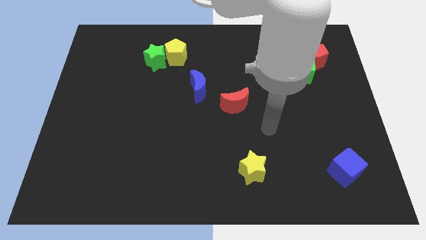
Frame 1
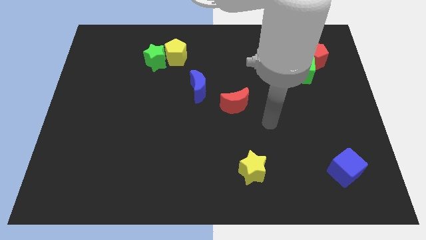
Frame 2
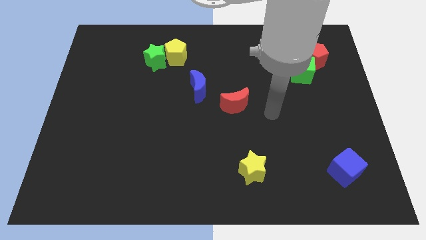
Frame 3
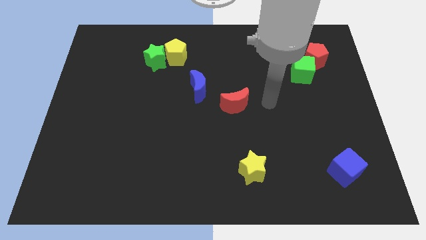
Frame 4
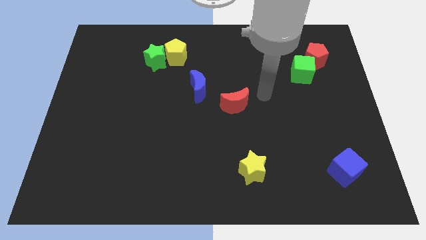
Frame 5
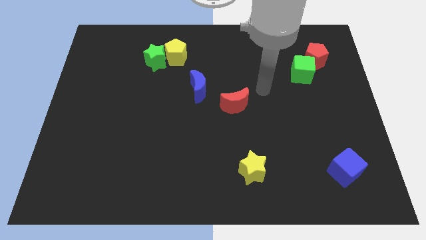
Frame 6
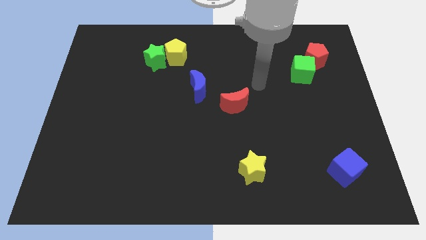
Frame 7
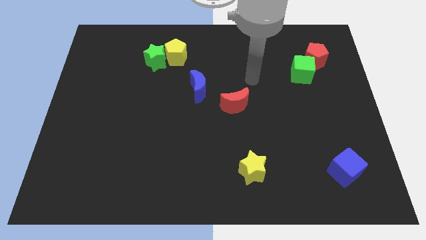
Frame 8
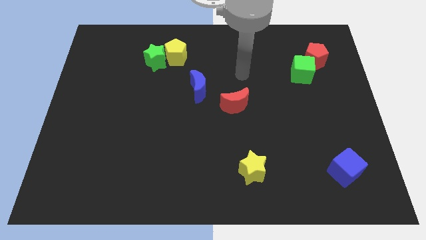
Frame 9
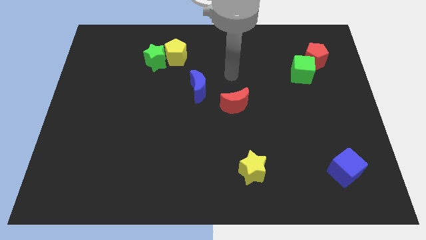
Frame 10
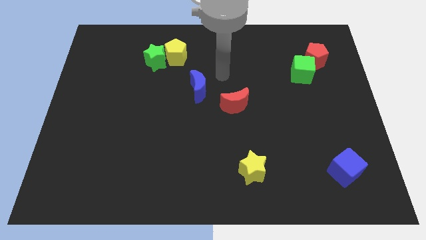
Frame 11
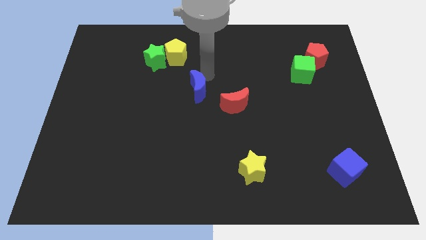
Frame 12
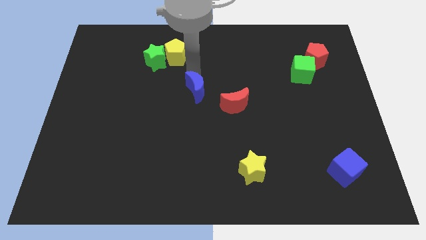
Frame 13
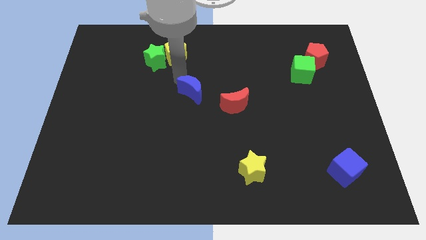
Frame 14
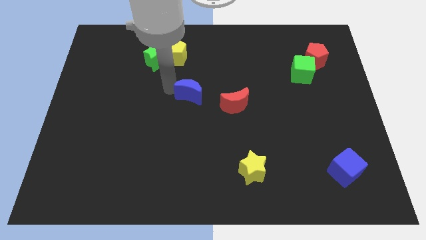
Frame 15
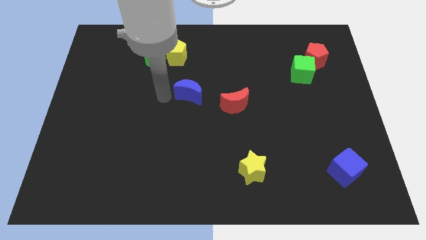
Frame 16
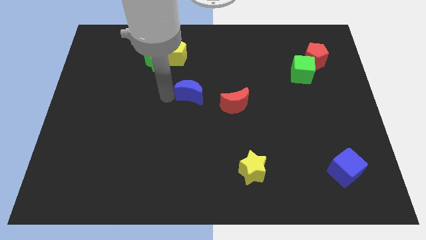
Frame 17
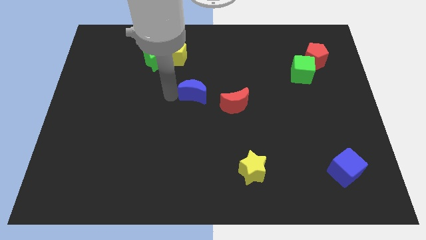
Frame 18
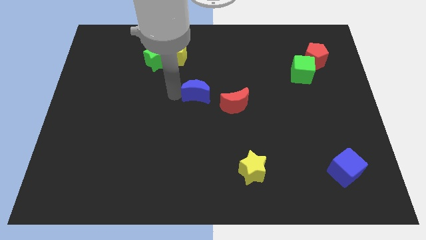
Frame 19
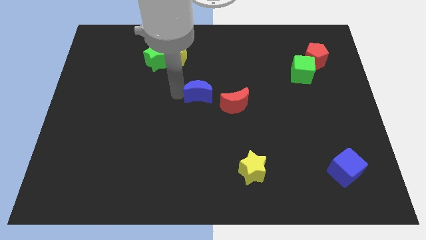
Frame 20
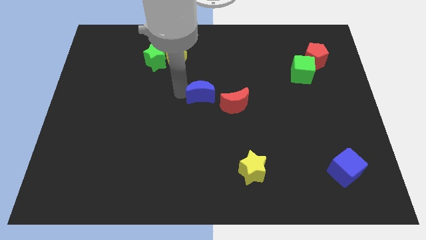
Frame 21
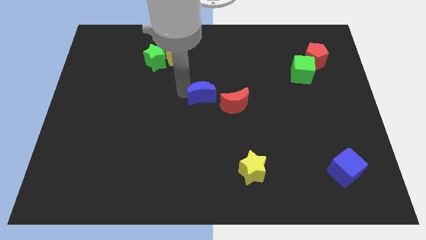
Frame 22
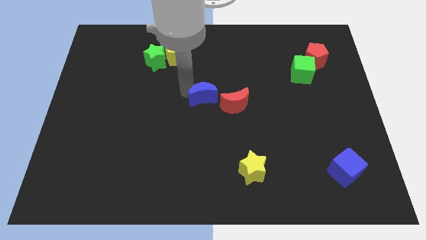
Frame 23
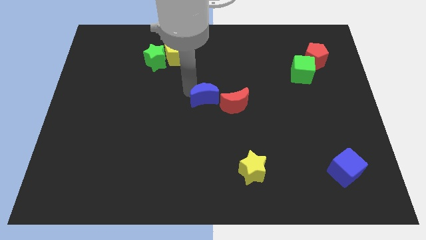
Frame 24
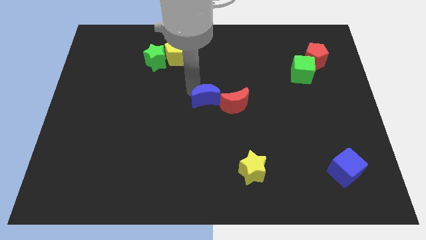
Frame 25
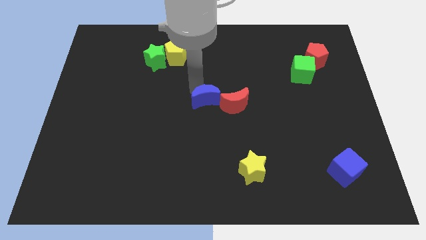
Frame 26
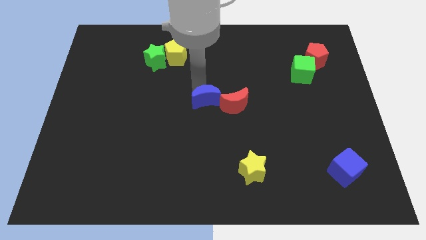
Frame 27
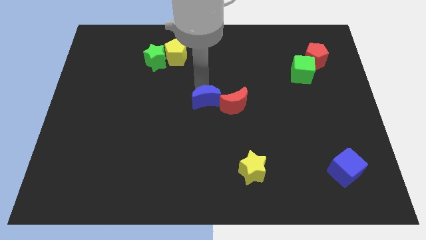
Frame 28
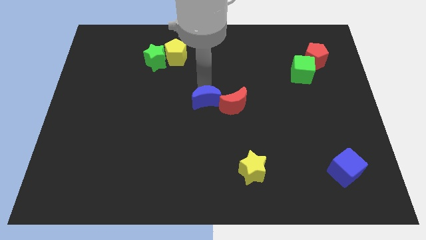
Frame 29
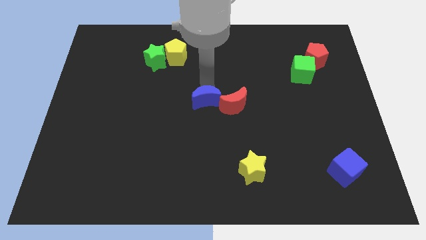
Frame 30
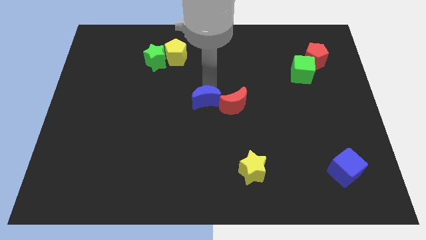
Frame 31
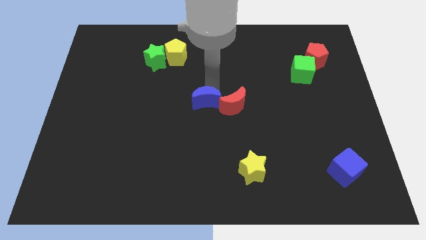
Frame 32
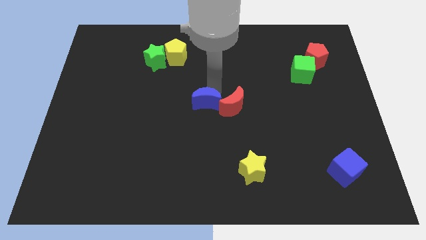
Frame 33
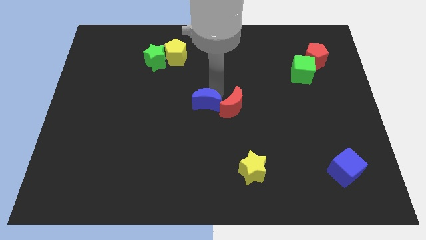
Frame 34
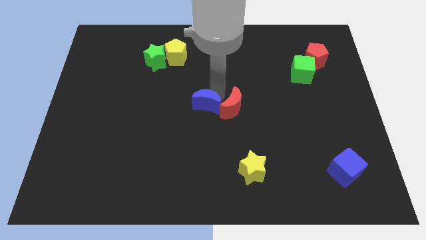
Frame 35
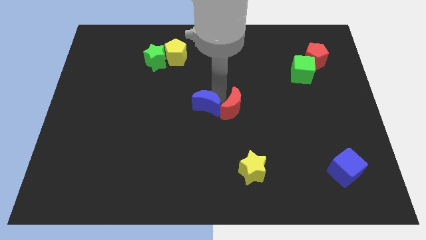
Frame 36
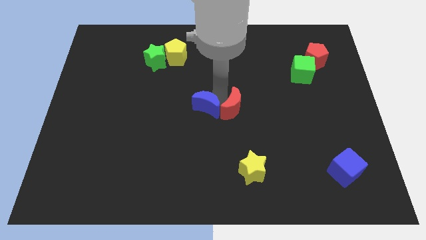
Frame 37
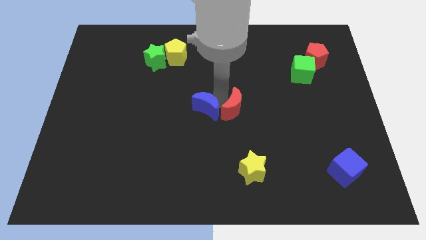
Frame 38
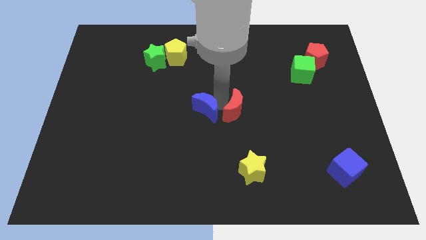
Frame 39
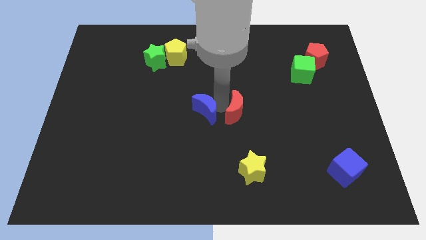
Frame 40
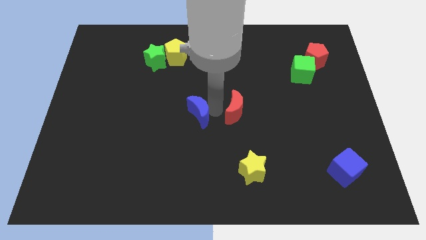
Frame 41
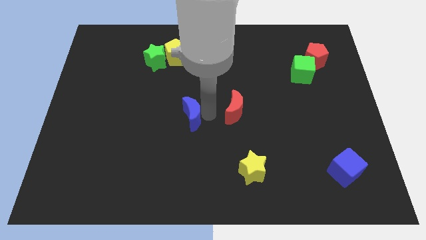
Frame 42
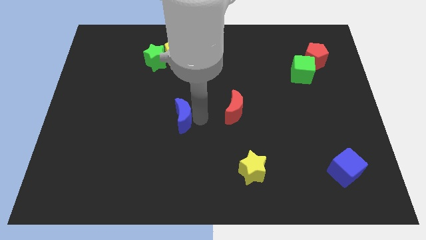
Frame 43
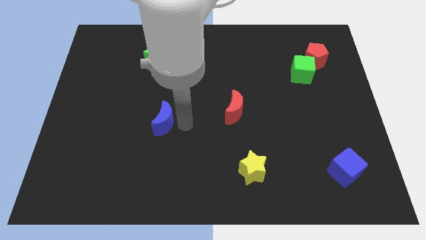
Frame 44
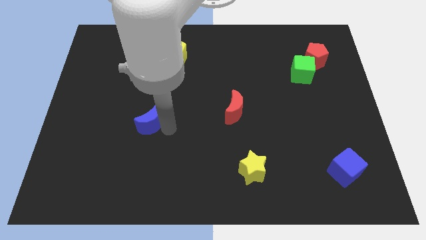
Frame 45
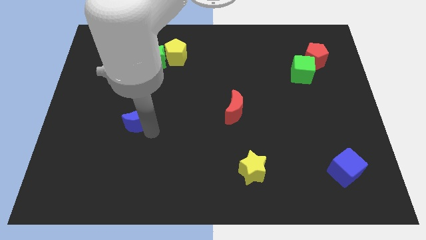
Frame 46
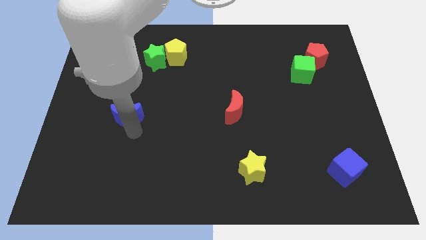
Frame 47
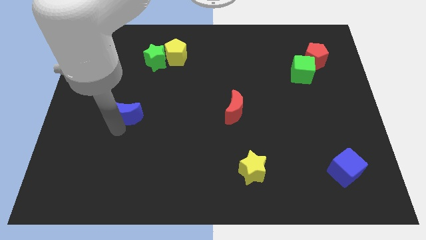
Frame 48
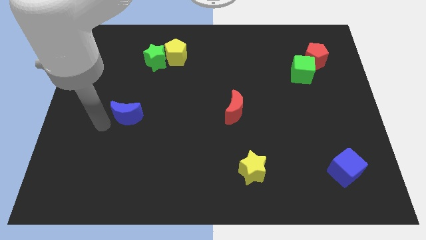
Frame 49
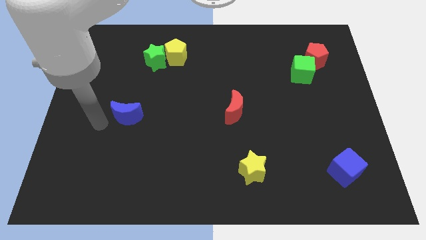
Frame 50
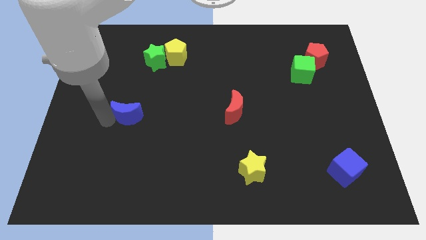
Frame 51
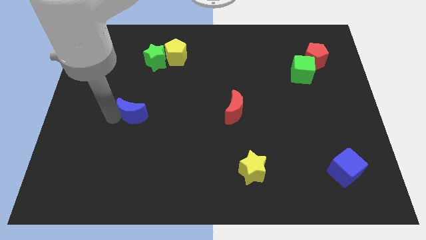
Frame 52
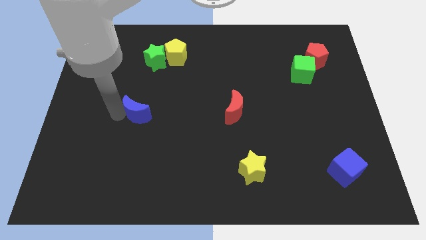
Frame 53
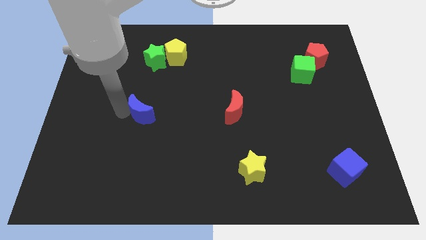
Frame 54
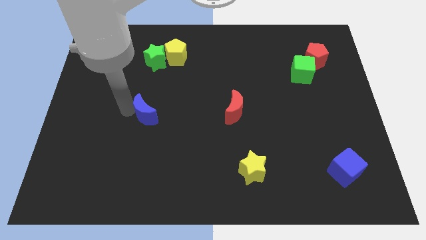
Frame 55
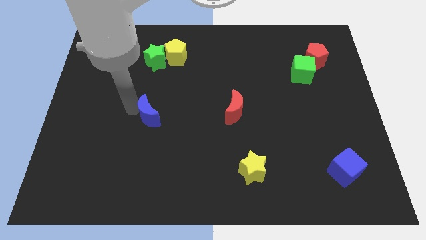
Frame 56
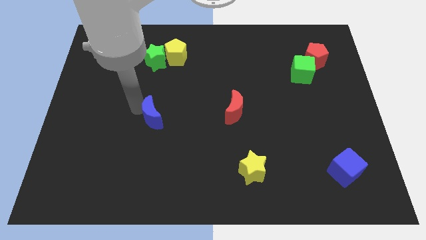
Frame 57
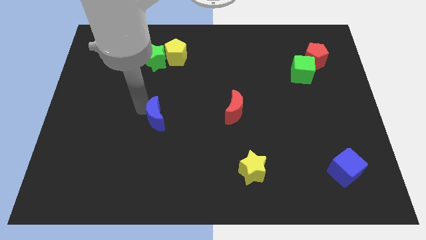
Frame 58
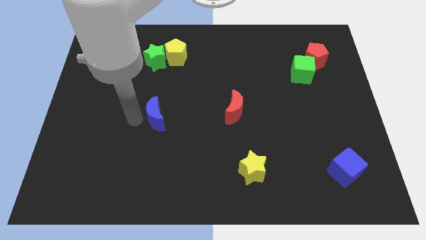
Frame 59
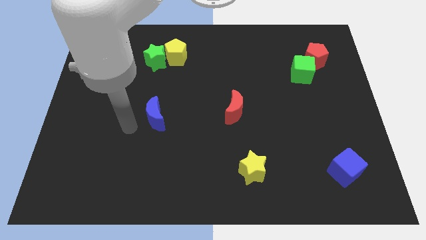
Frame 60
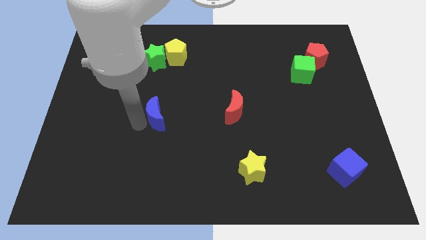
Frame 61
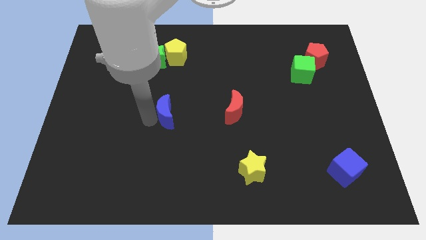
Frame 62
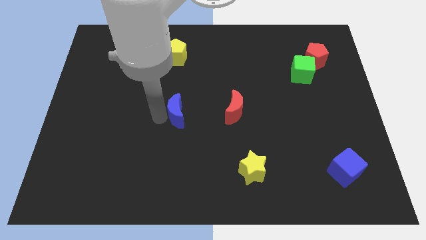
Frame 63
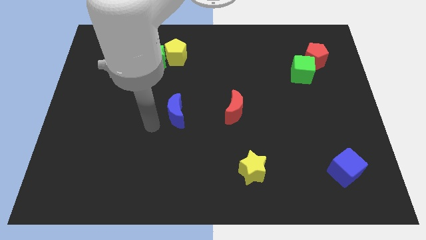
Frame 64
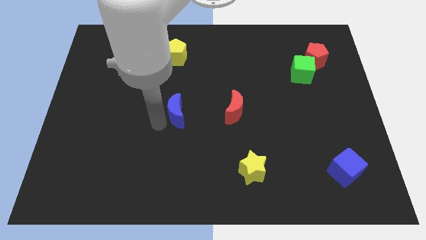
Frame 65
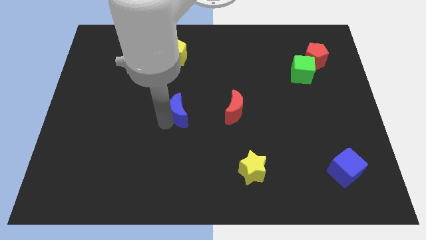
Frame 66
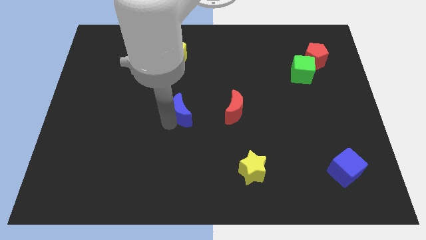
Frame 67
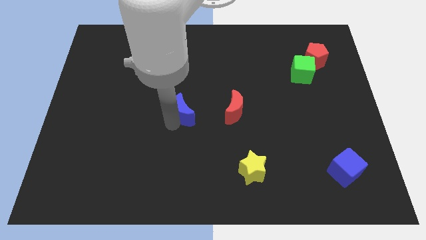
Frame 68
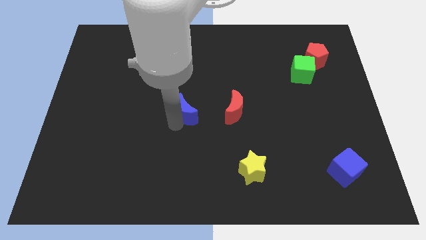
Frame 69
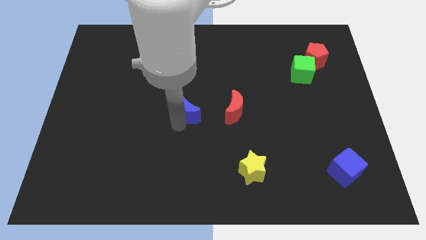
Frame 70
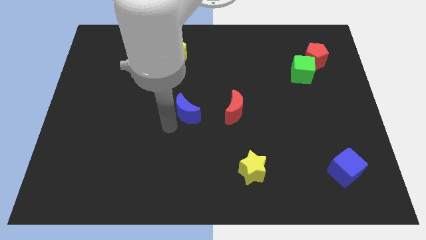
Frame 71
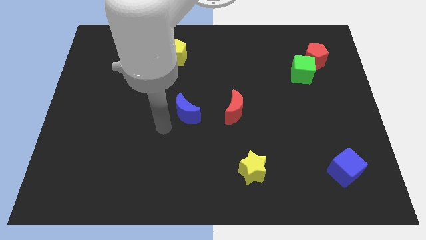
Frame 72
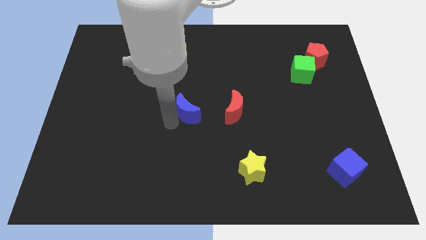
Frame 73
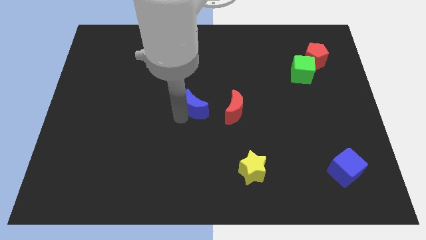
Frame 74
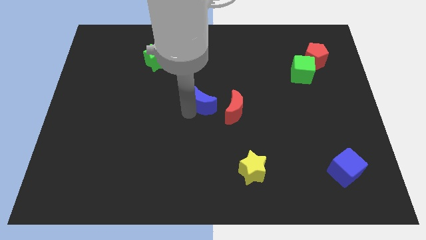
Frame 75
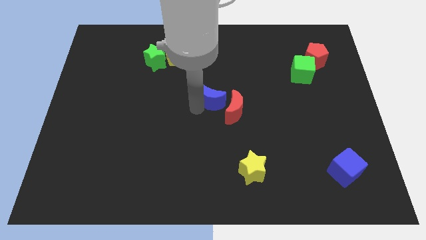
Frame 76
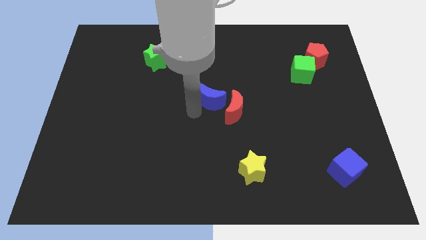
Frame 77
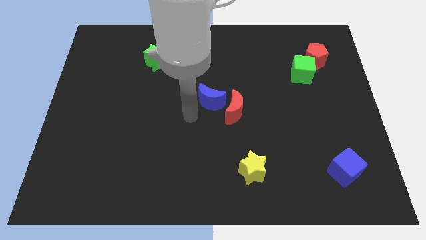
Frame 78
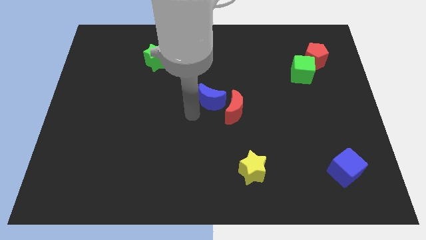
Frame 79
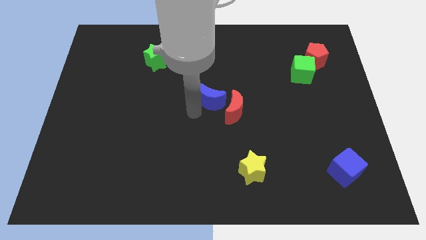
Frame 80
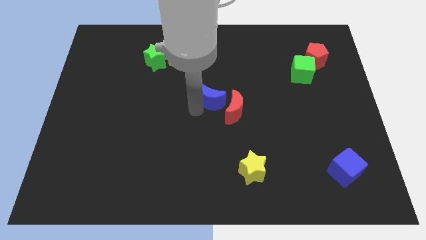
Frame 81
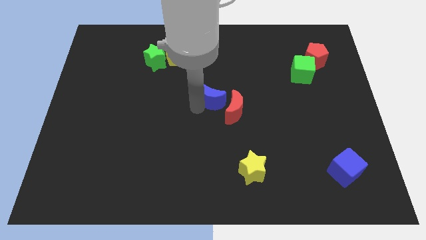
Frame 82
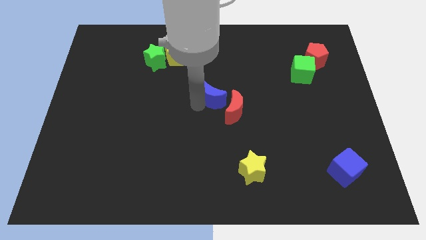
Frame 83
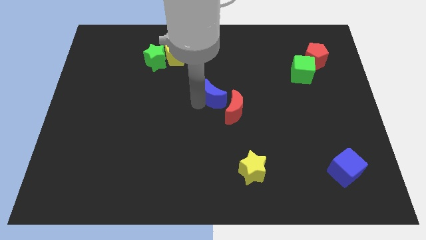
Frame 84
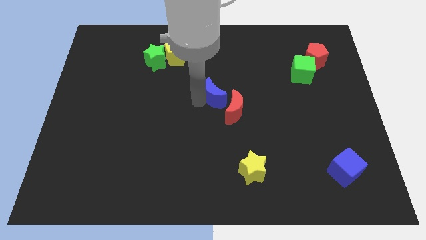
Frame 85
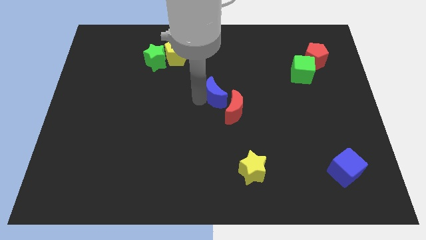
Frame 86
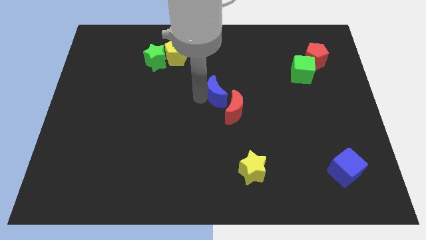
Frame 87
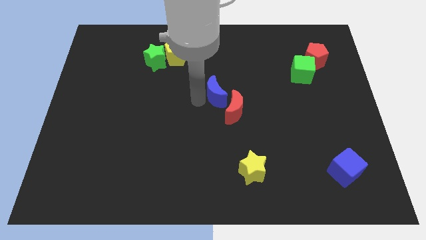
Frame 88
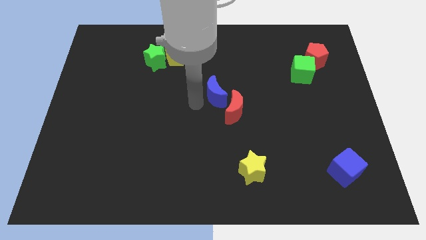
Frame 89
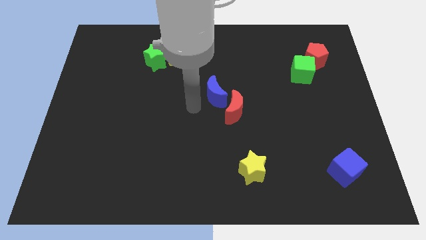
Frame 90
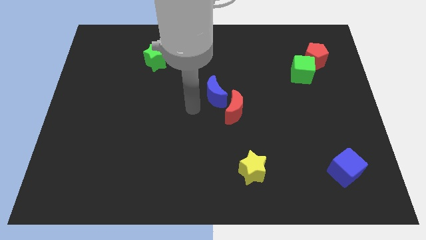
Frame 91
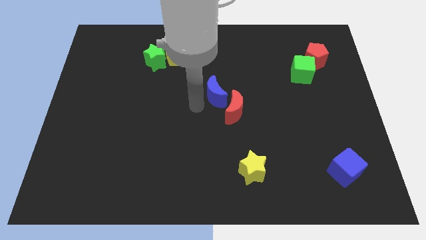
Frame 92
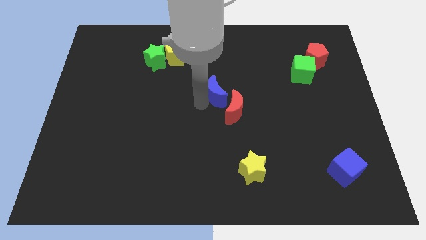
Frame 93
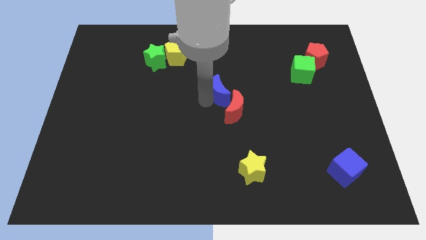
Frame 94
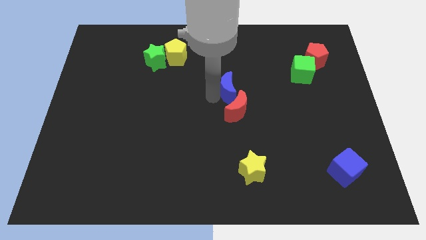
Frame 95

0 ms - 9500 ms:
slide the blue moon to the right a bit
